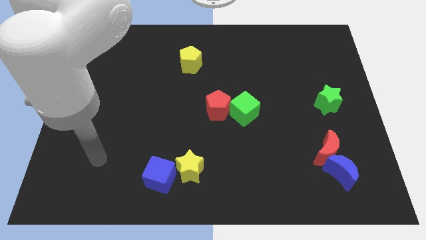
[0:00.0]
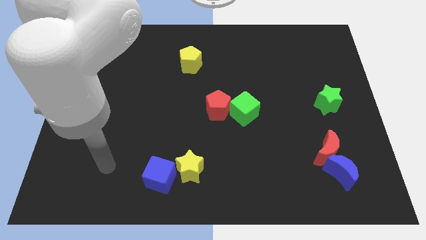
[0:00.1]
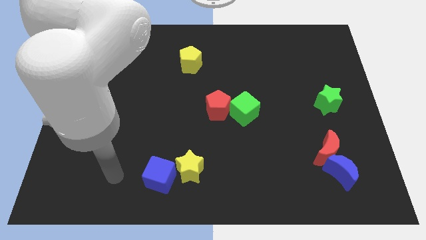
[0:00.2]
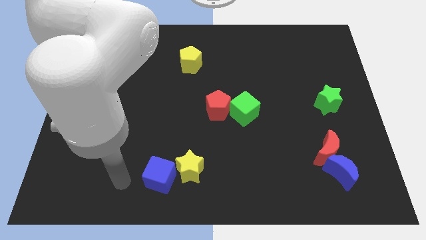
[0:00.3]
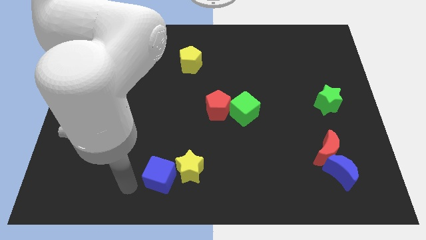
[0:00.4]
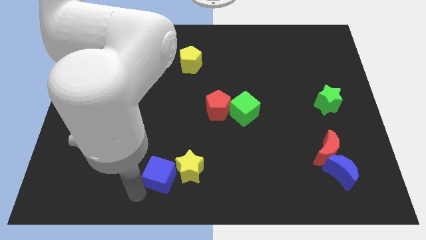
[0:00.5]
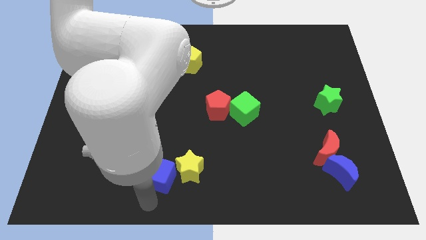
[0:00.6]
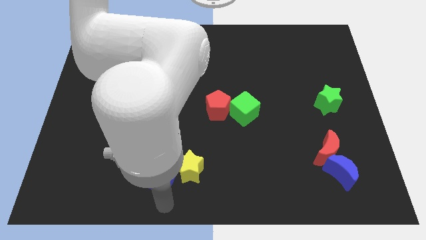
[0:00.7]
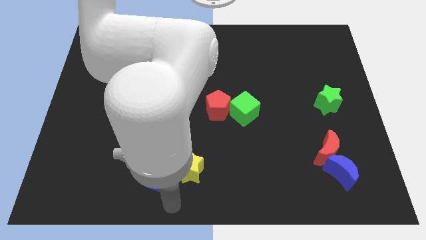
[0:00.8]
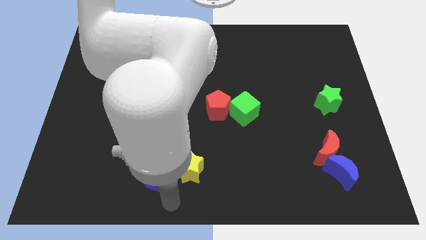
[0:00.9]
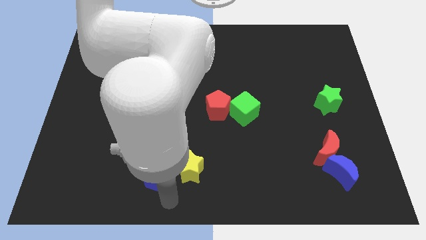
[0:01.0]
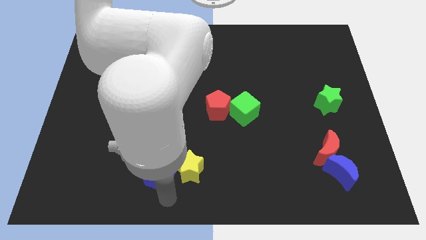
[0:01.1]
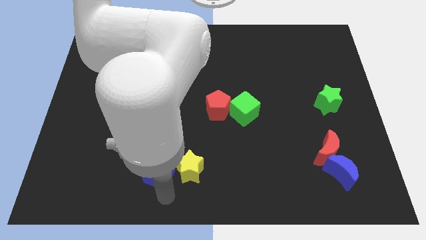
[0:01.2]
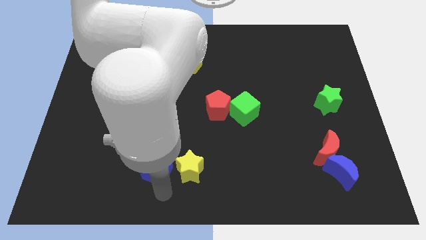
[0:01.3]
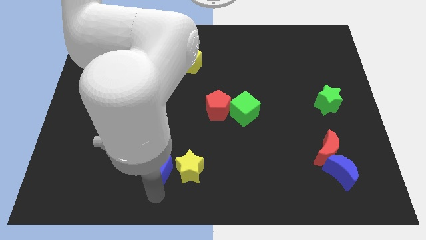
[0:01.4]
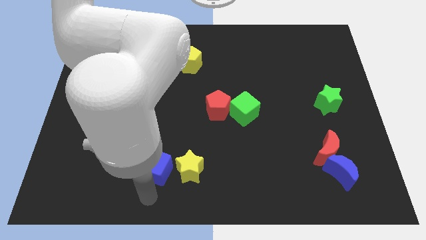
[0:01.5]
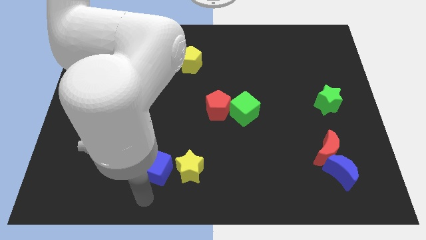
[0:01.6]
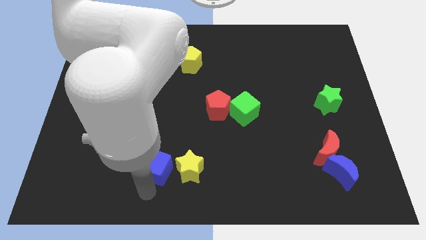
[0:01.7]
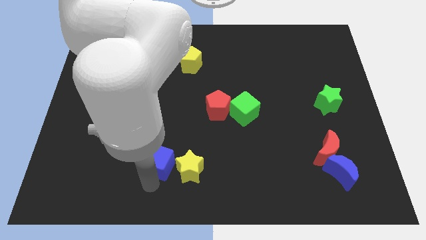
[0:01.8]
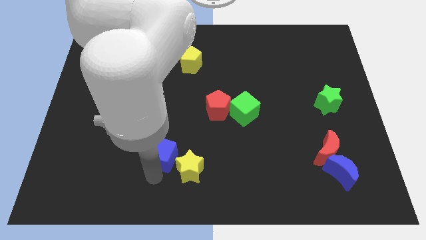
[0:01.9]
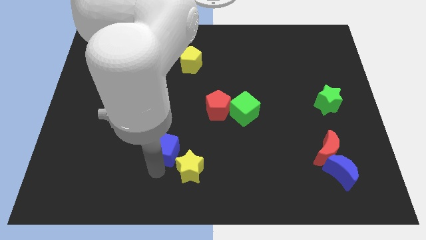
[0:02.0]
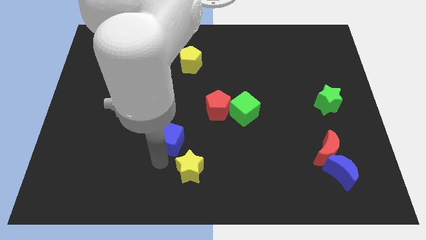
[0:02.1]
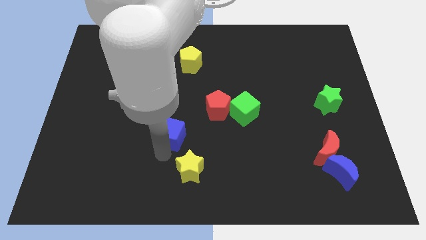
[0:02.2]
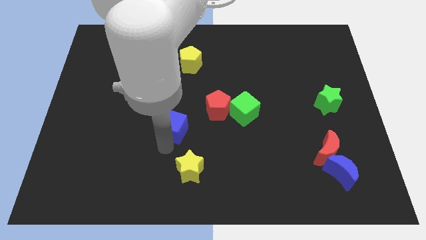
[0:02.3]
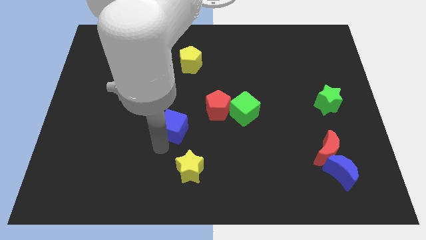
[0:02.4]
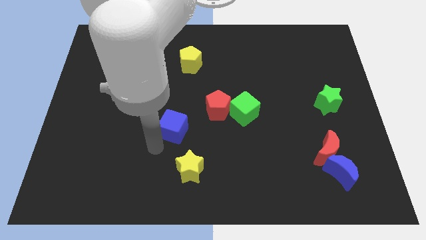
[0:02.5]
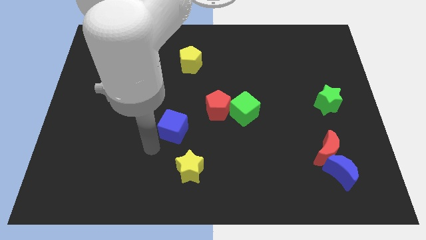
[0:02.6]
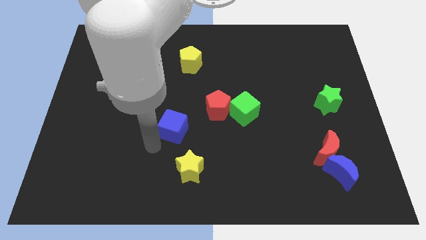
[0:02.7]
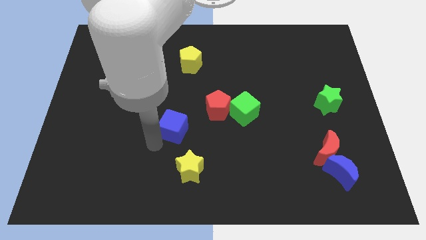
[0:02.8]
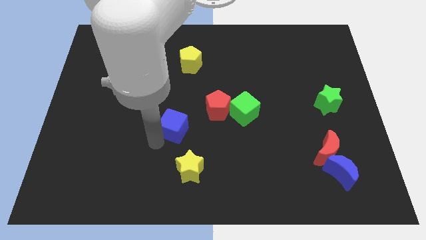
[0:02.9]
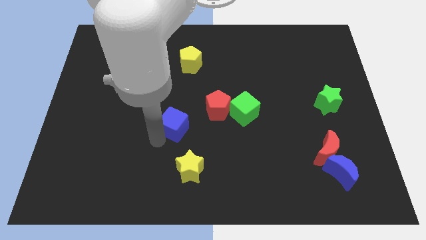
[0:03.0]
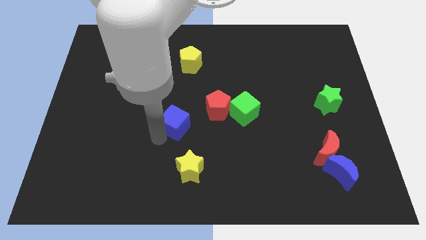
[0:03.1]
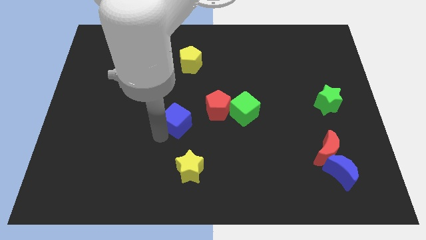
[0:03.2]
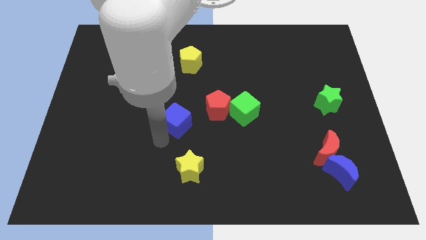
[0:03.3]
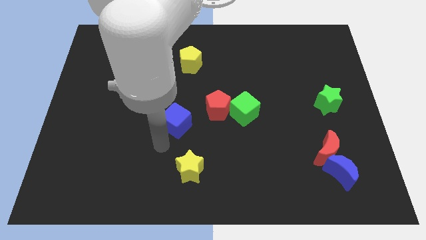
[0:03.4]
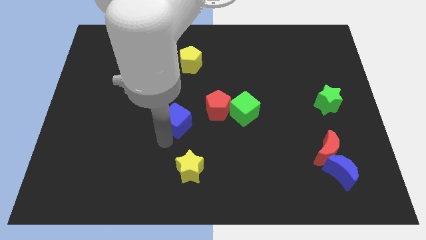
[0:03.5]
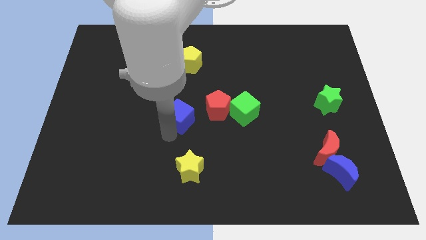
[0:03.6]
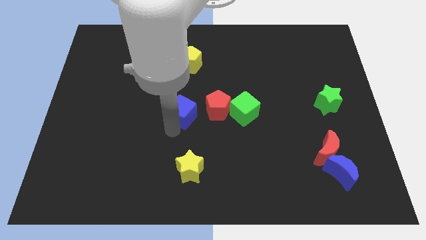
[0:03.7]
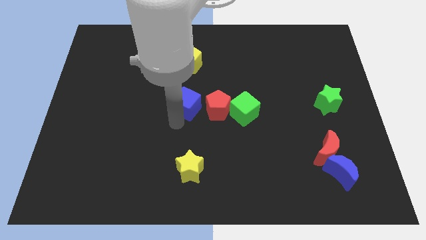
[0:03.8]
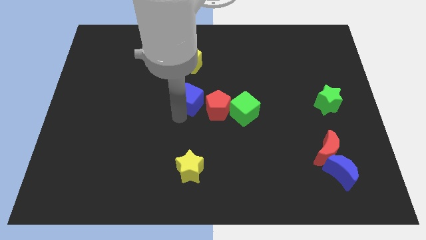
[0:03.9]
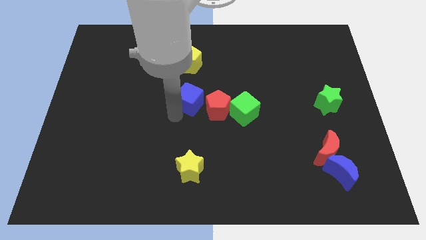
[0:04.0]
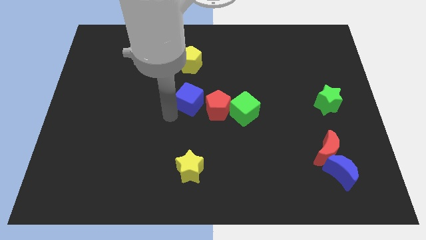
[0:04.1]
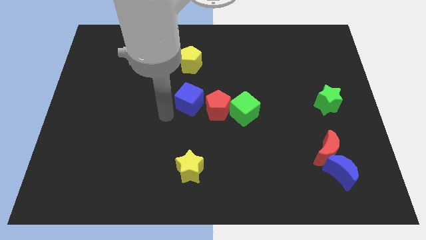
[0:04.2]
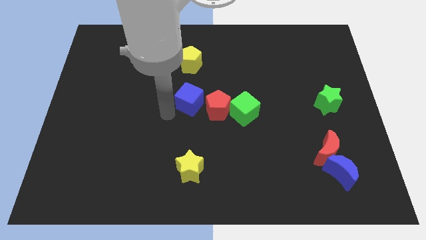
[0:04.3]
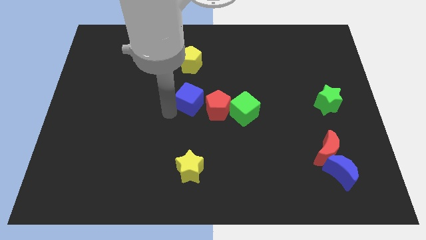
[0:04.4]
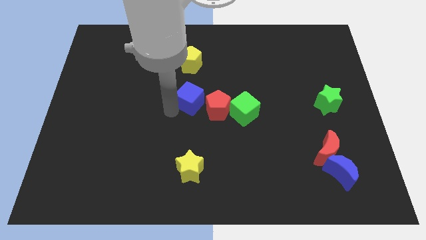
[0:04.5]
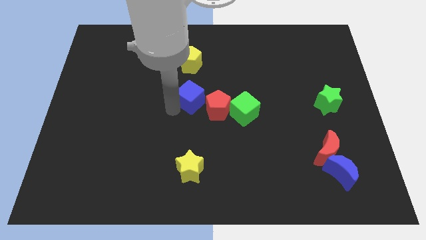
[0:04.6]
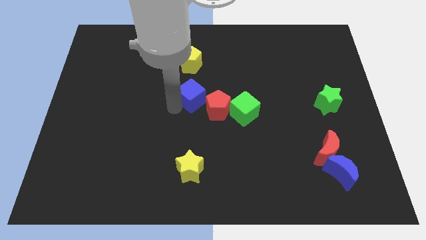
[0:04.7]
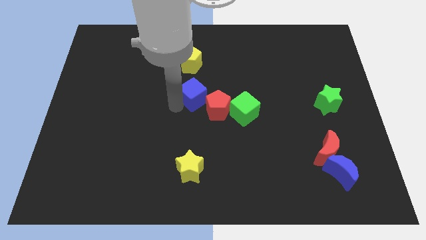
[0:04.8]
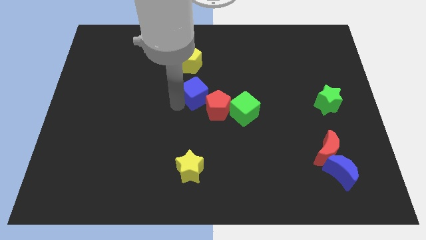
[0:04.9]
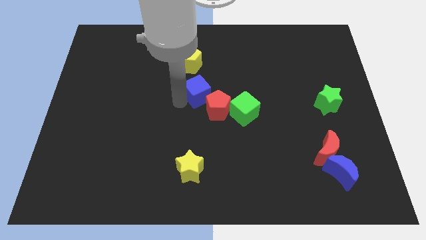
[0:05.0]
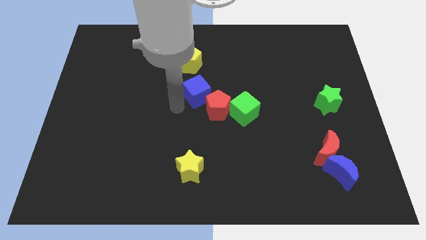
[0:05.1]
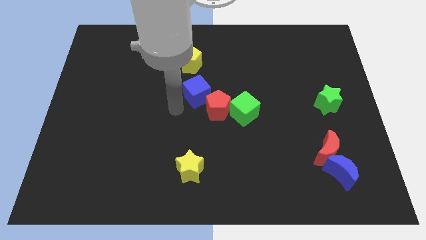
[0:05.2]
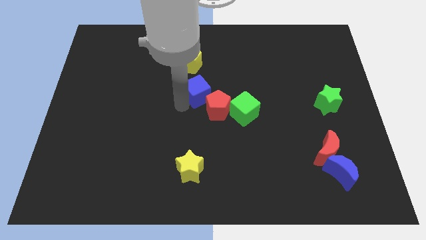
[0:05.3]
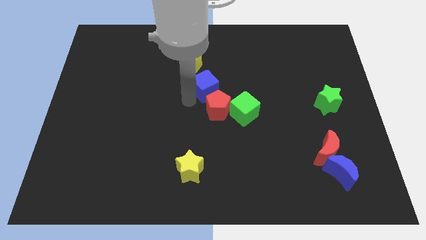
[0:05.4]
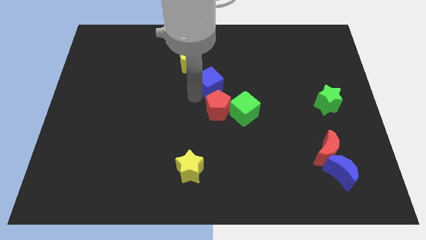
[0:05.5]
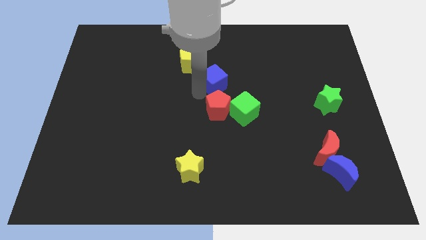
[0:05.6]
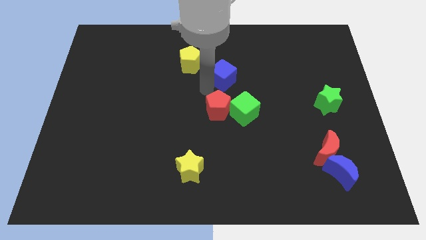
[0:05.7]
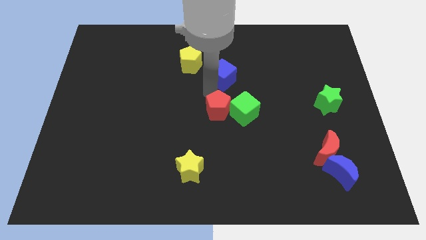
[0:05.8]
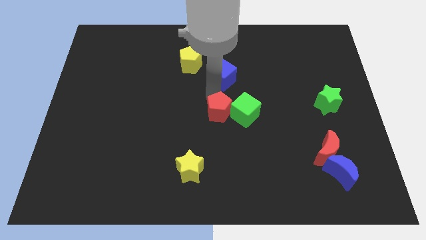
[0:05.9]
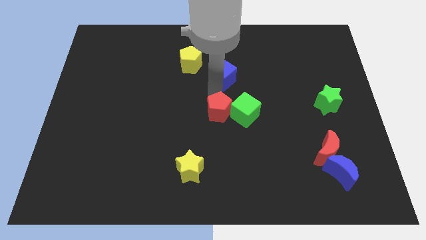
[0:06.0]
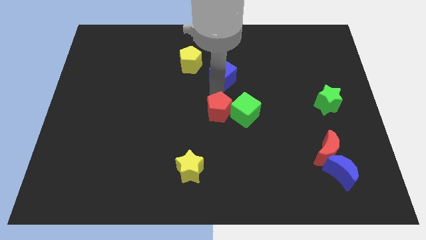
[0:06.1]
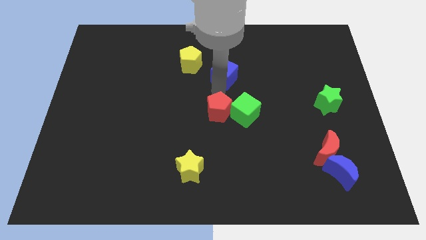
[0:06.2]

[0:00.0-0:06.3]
push the blue cube to the right of the yellow pentagon
